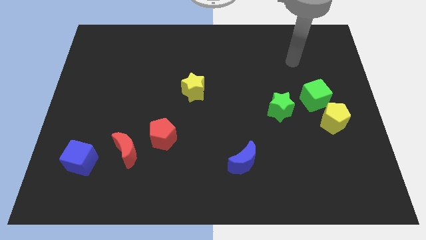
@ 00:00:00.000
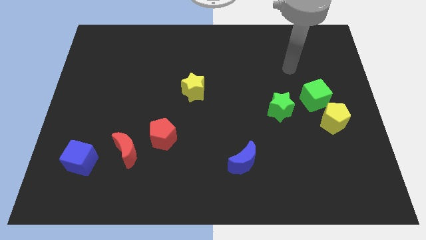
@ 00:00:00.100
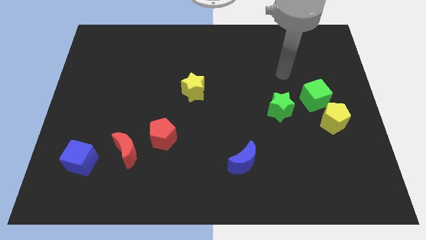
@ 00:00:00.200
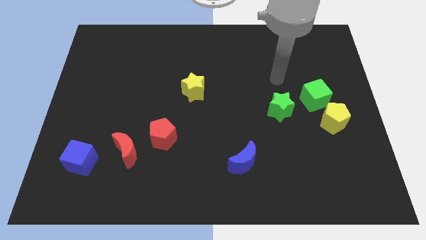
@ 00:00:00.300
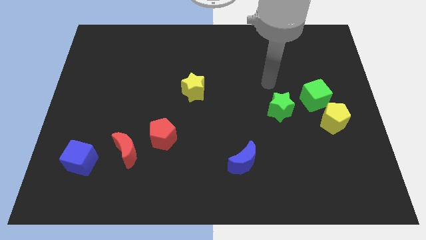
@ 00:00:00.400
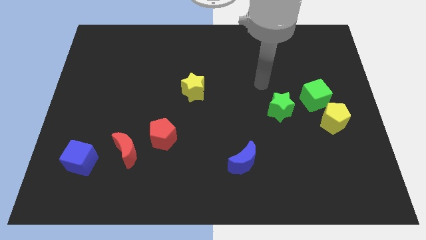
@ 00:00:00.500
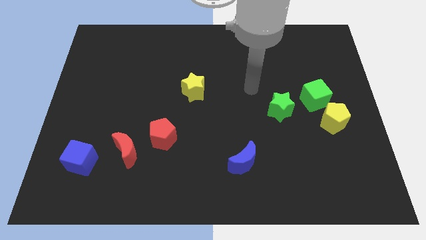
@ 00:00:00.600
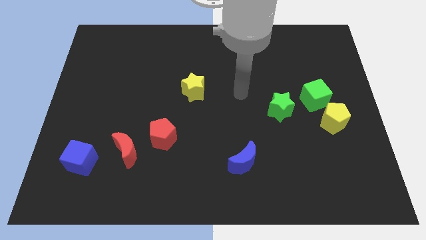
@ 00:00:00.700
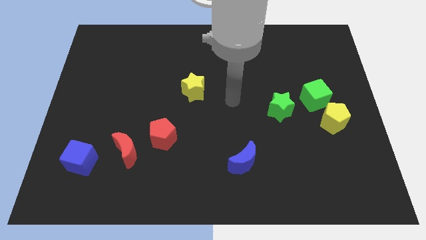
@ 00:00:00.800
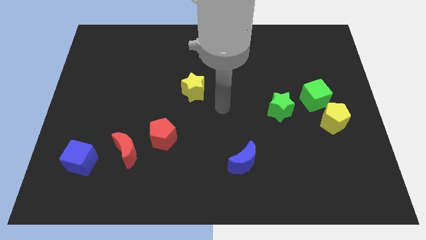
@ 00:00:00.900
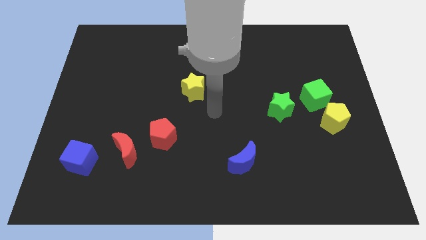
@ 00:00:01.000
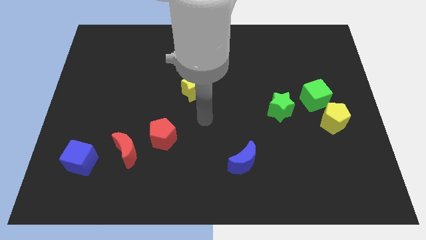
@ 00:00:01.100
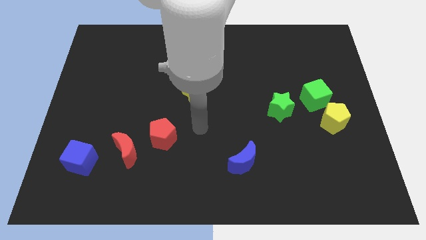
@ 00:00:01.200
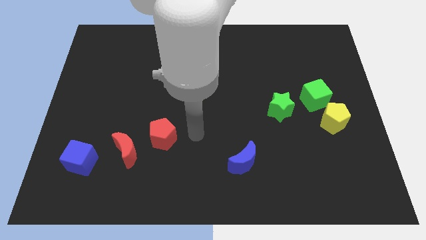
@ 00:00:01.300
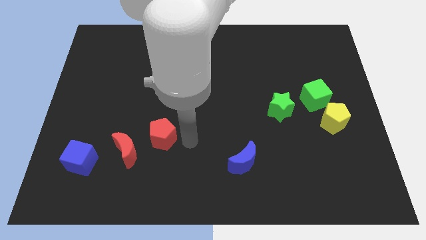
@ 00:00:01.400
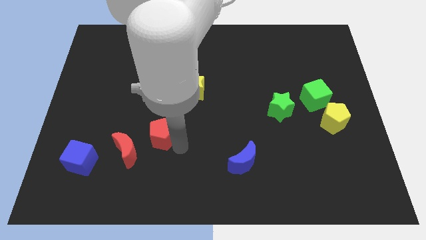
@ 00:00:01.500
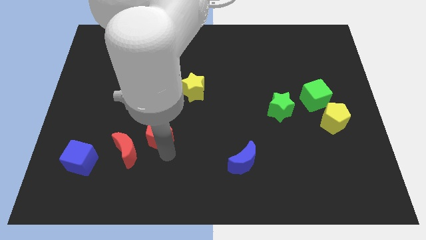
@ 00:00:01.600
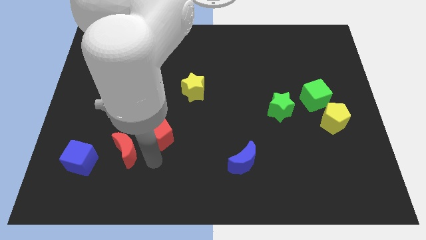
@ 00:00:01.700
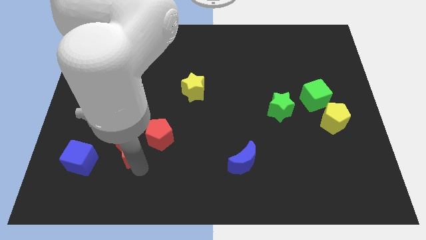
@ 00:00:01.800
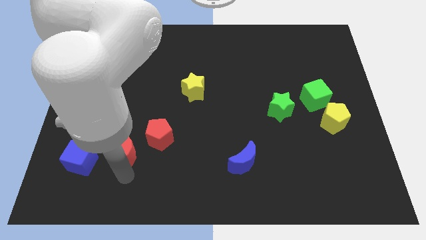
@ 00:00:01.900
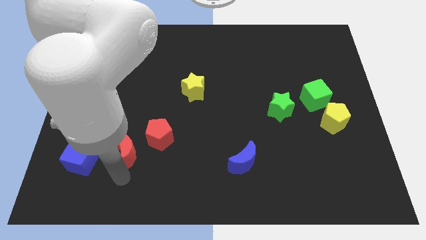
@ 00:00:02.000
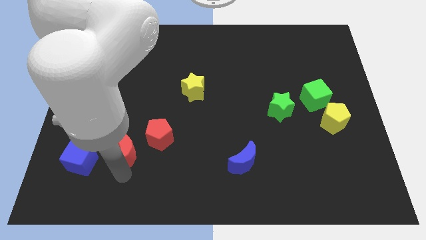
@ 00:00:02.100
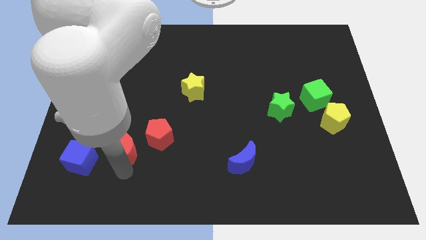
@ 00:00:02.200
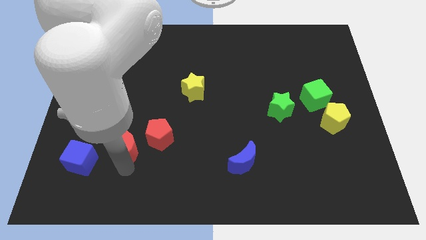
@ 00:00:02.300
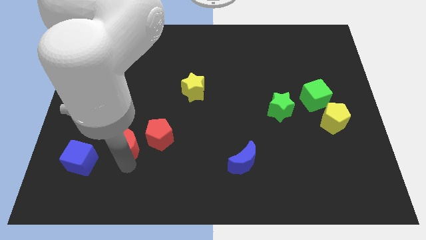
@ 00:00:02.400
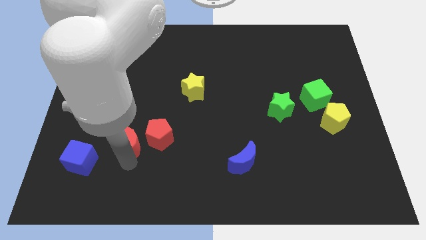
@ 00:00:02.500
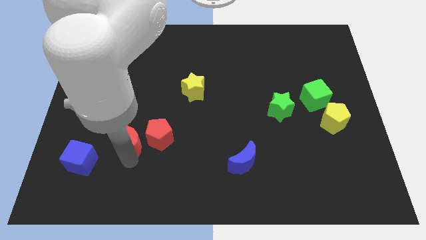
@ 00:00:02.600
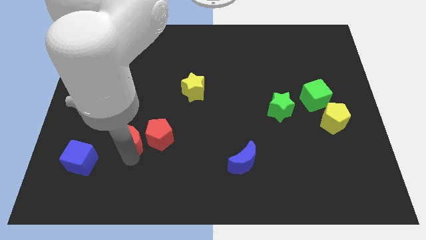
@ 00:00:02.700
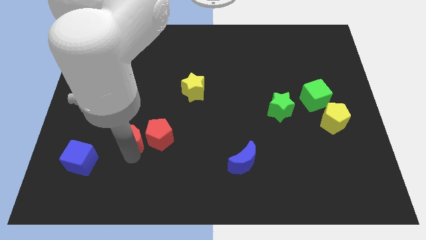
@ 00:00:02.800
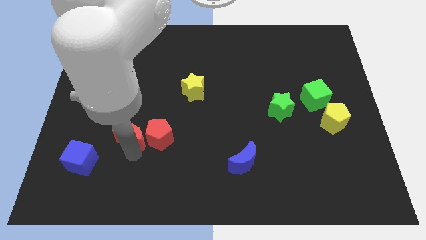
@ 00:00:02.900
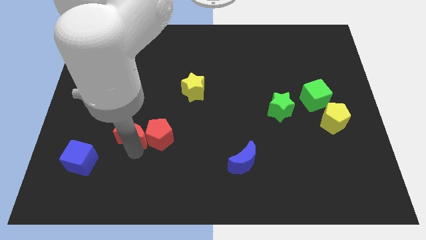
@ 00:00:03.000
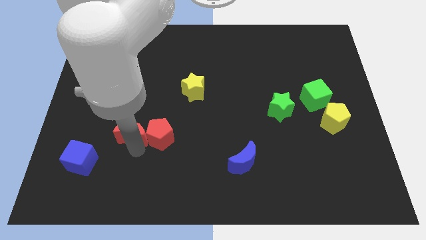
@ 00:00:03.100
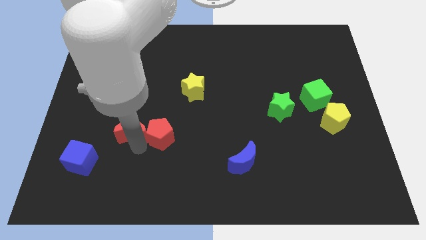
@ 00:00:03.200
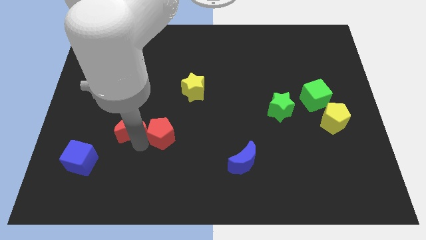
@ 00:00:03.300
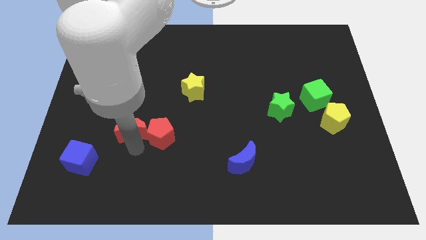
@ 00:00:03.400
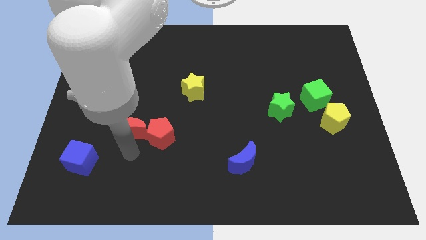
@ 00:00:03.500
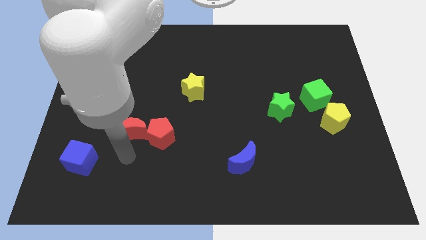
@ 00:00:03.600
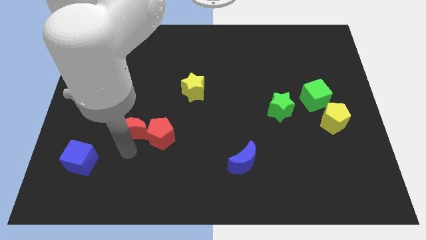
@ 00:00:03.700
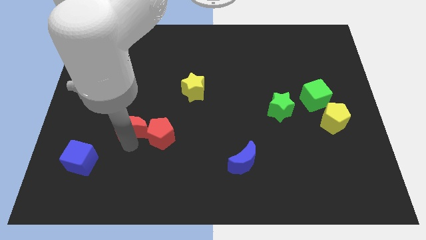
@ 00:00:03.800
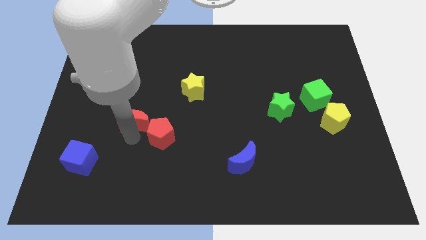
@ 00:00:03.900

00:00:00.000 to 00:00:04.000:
move the red moon upwards somewhat

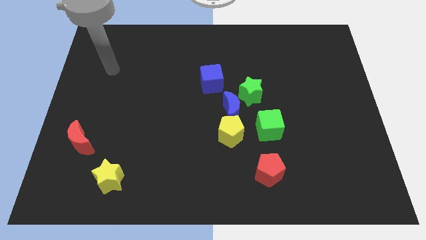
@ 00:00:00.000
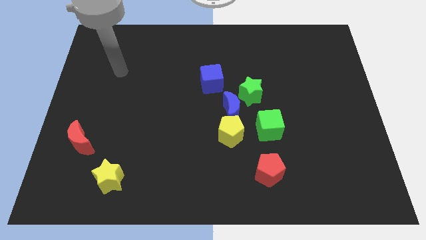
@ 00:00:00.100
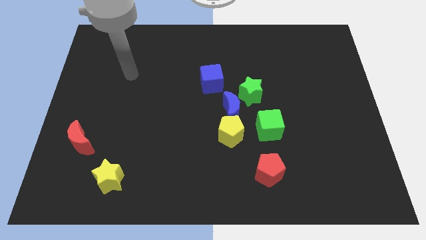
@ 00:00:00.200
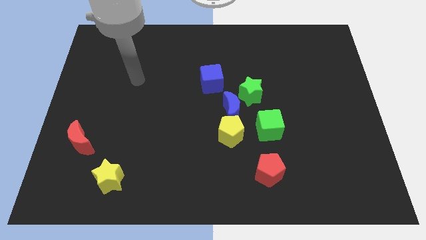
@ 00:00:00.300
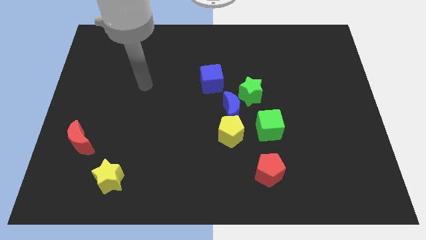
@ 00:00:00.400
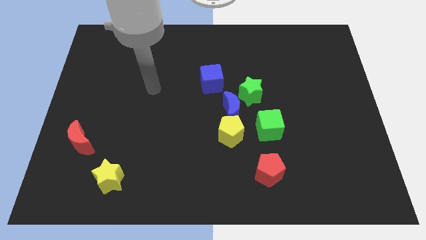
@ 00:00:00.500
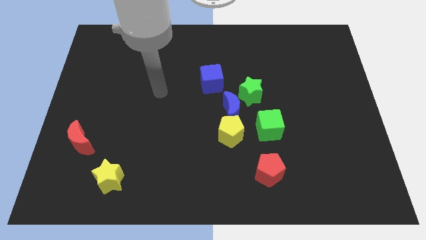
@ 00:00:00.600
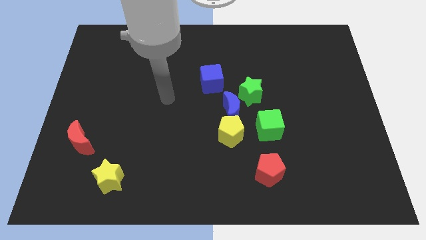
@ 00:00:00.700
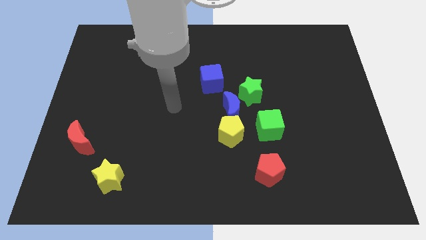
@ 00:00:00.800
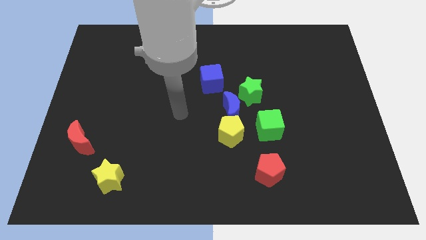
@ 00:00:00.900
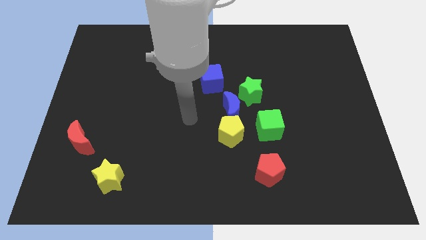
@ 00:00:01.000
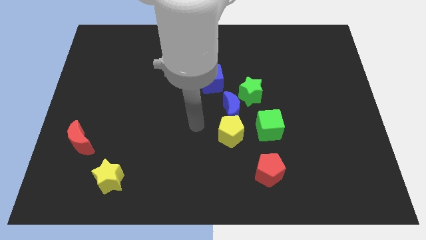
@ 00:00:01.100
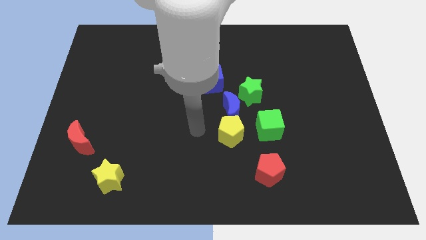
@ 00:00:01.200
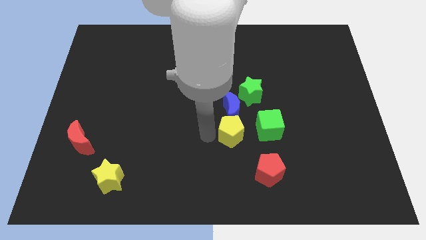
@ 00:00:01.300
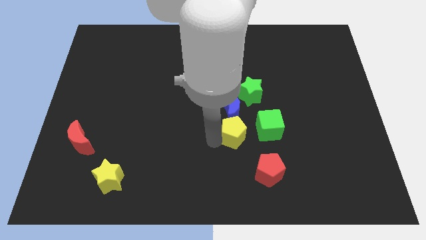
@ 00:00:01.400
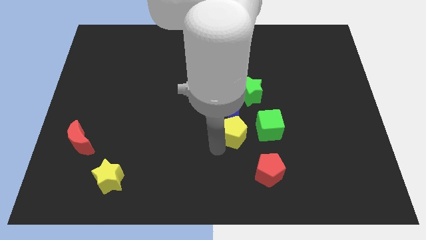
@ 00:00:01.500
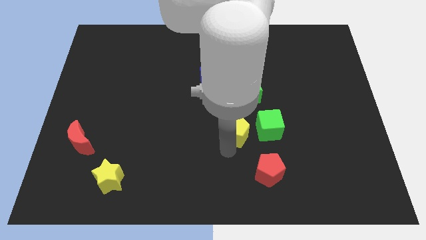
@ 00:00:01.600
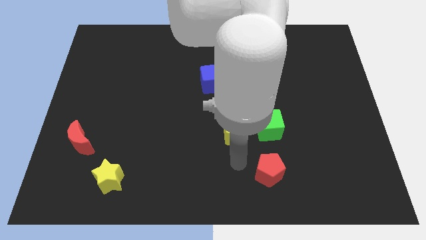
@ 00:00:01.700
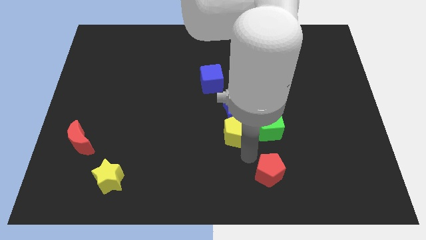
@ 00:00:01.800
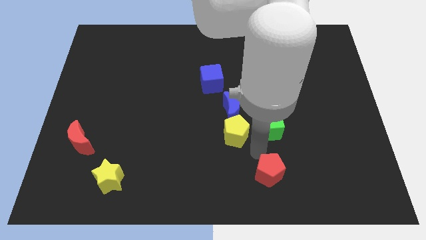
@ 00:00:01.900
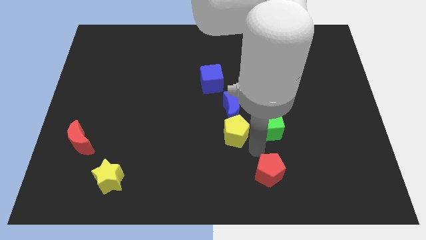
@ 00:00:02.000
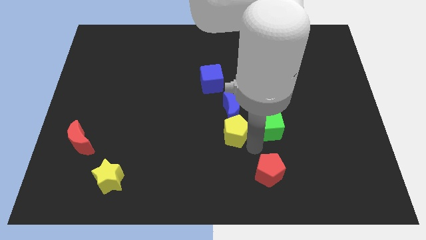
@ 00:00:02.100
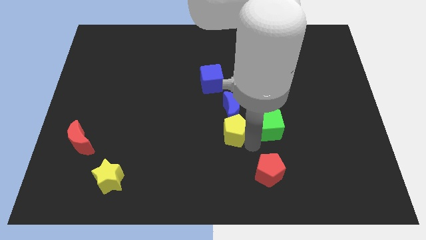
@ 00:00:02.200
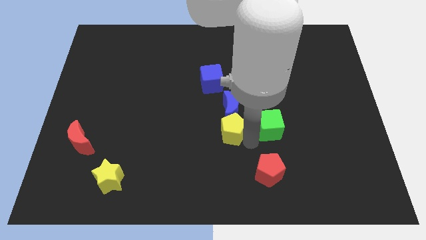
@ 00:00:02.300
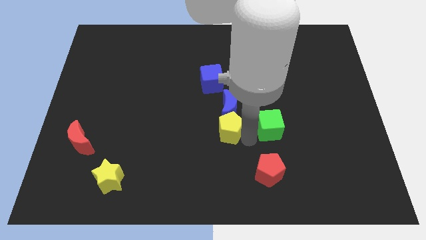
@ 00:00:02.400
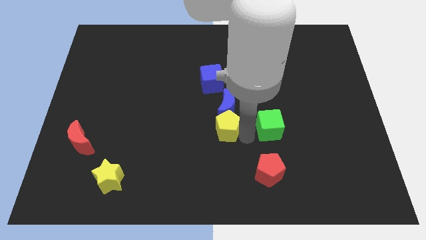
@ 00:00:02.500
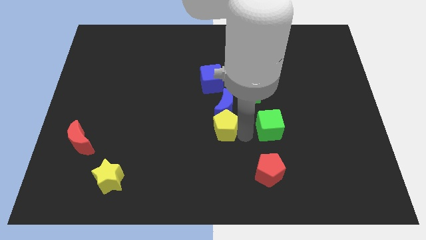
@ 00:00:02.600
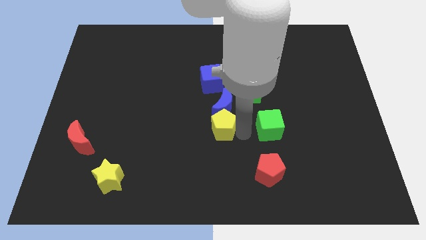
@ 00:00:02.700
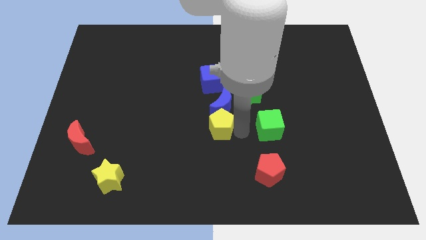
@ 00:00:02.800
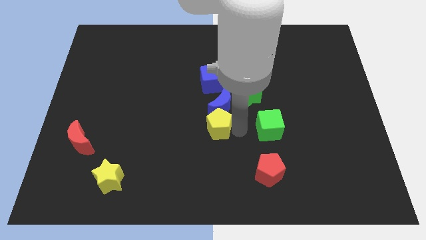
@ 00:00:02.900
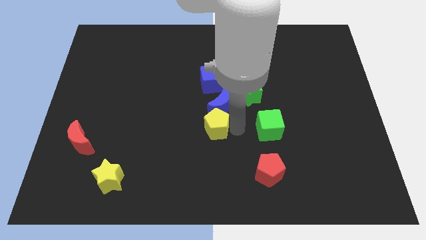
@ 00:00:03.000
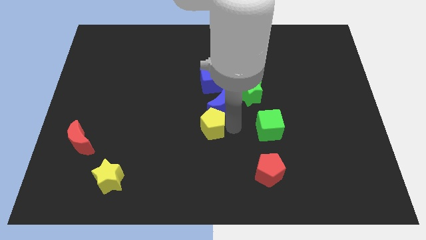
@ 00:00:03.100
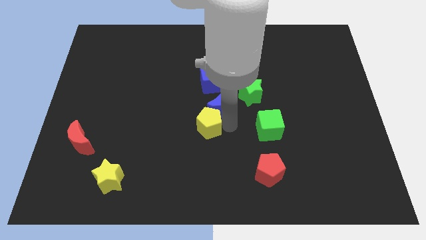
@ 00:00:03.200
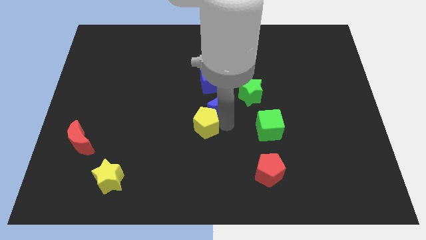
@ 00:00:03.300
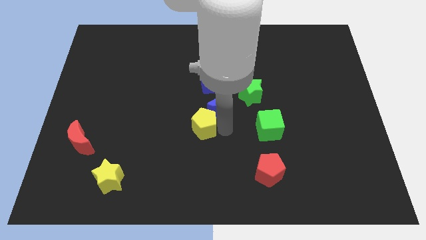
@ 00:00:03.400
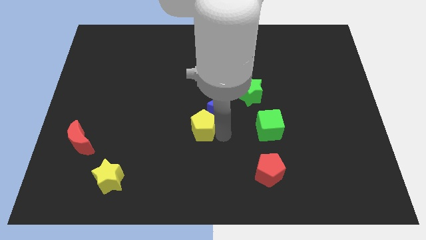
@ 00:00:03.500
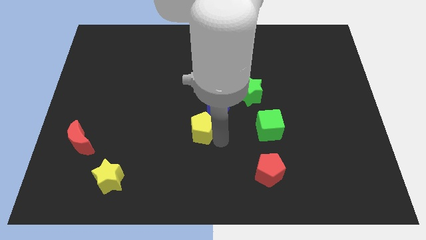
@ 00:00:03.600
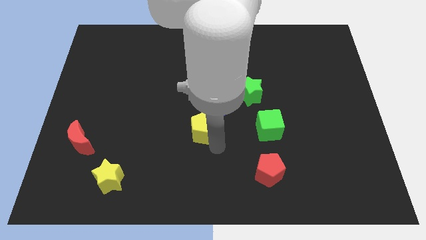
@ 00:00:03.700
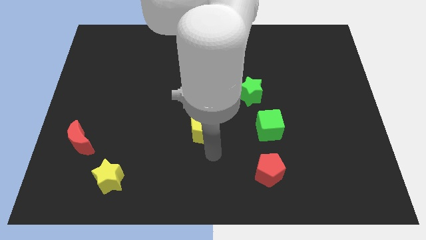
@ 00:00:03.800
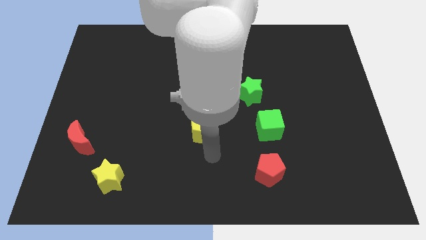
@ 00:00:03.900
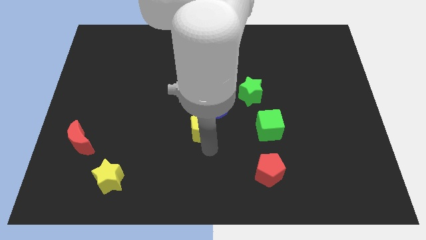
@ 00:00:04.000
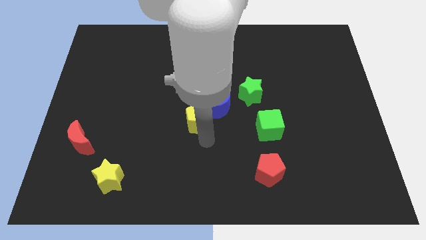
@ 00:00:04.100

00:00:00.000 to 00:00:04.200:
move the yellow pentagon a little up and left diagonally
